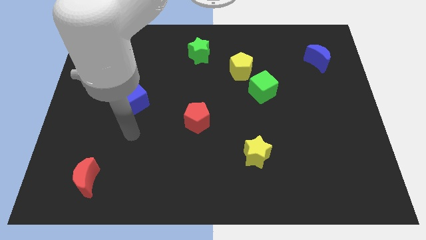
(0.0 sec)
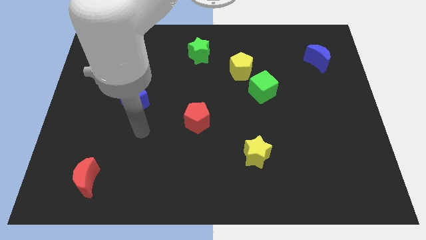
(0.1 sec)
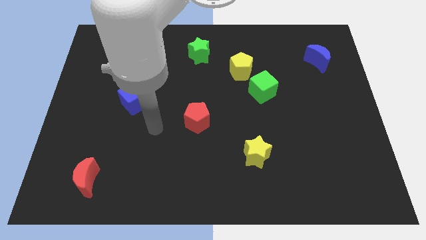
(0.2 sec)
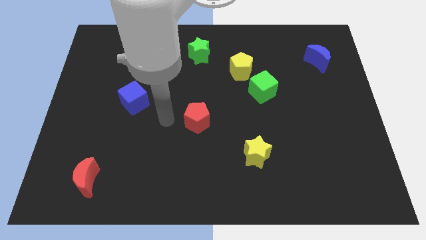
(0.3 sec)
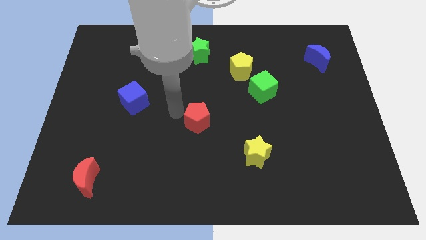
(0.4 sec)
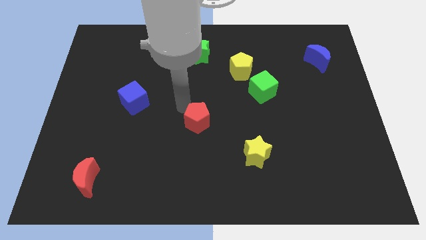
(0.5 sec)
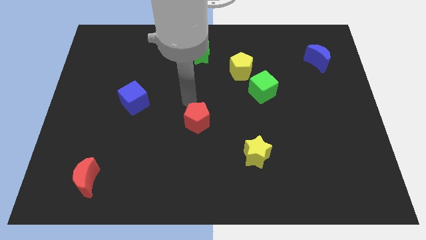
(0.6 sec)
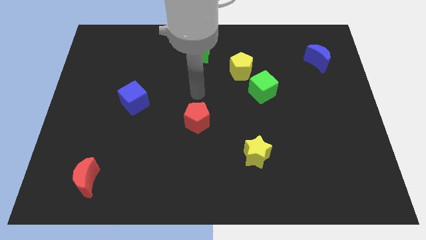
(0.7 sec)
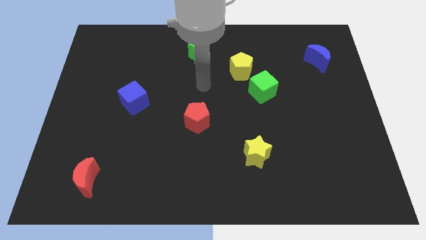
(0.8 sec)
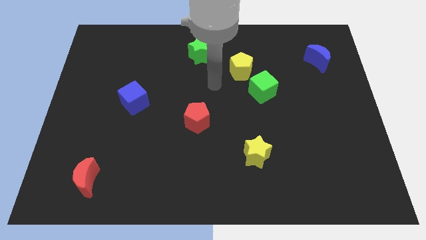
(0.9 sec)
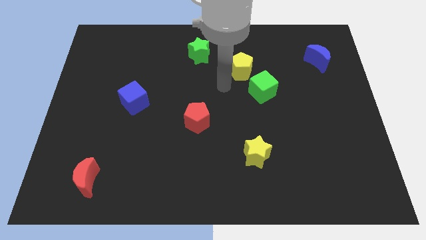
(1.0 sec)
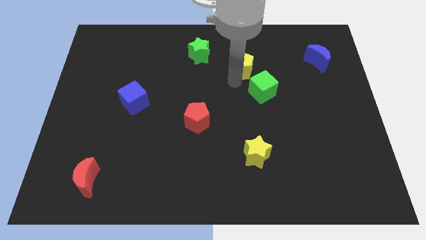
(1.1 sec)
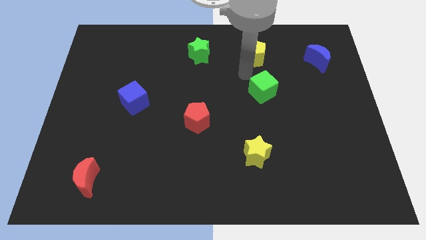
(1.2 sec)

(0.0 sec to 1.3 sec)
move the green cube away from the yellow pentagon

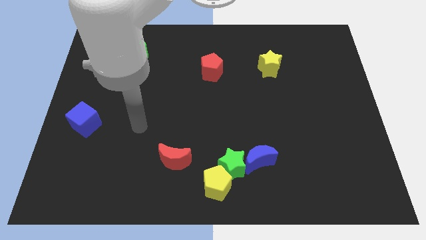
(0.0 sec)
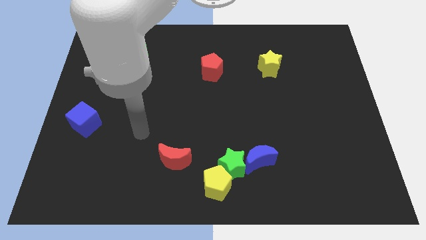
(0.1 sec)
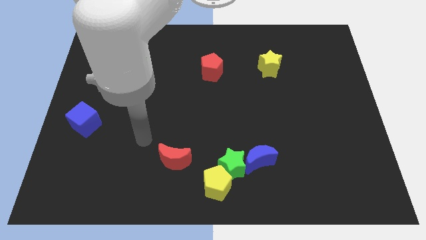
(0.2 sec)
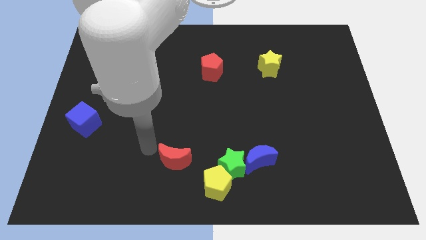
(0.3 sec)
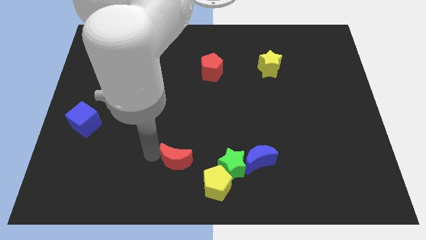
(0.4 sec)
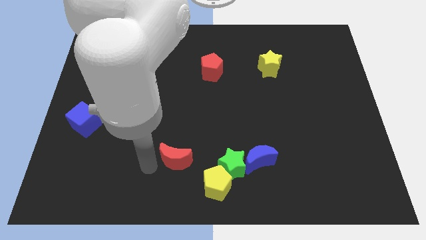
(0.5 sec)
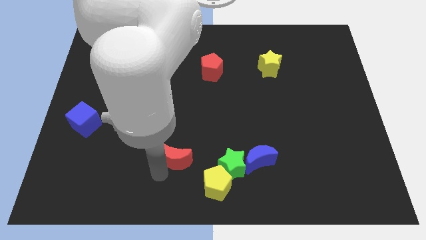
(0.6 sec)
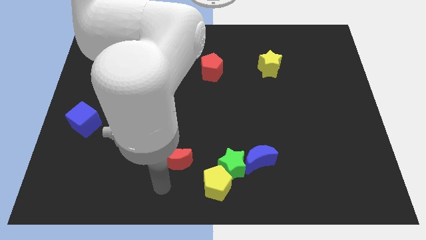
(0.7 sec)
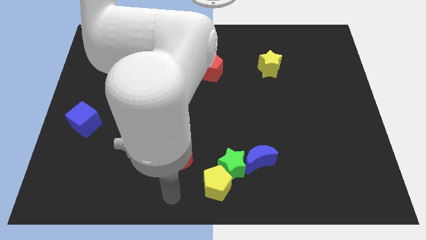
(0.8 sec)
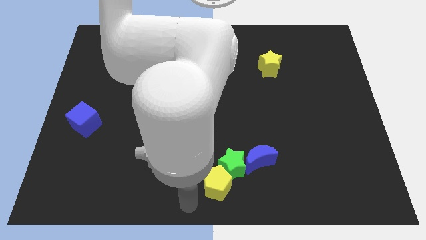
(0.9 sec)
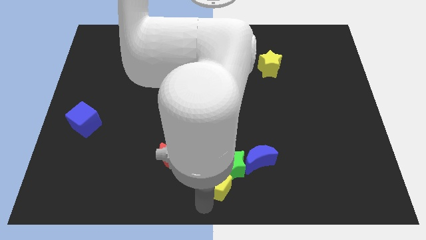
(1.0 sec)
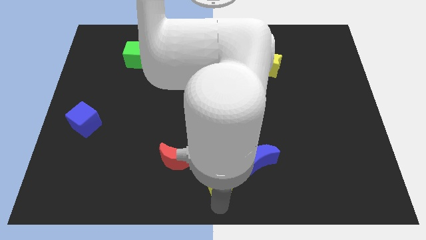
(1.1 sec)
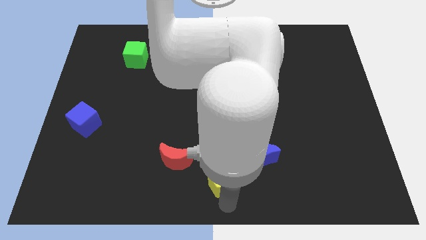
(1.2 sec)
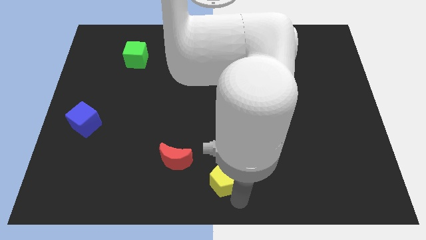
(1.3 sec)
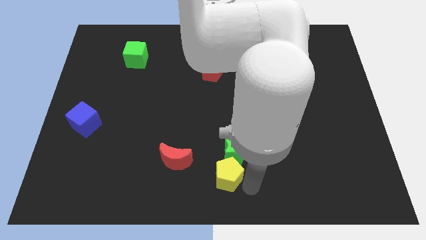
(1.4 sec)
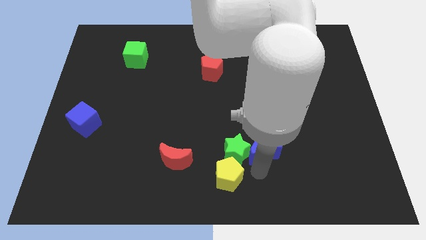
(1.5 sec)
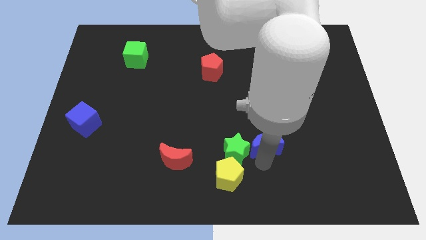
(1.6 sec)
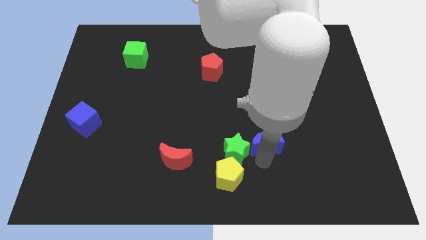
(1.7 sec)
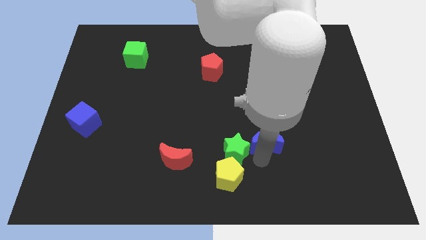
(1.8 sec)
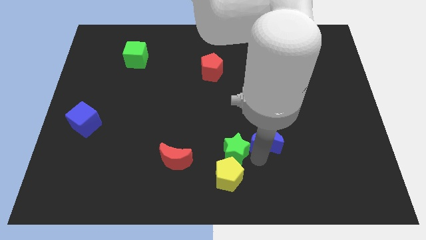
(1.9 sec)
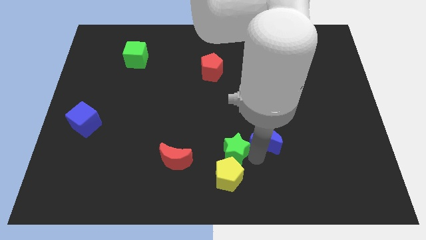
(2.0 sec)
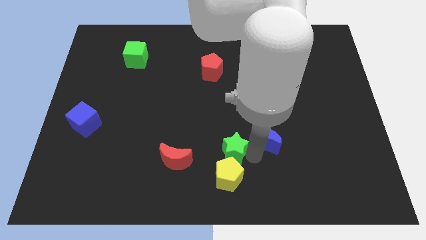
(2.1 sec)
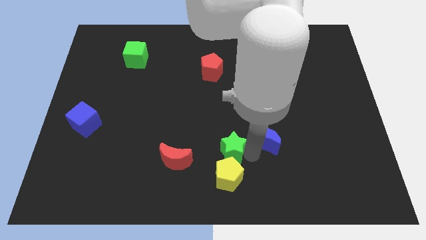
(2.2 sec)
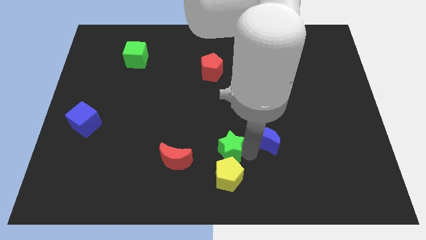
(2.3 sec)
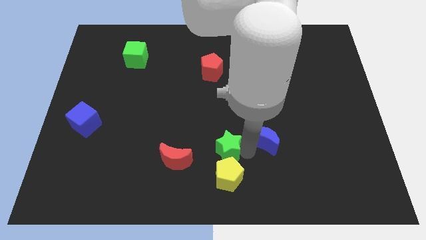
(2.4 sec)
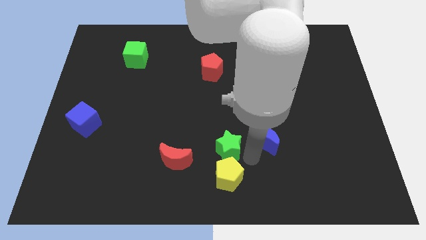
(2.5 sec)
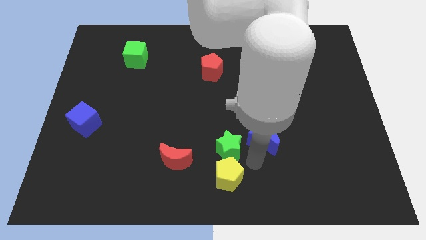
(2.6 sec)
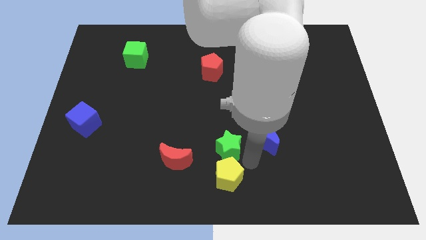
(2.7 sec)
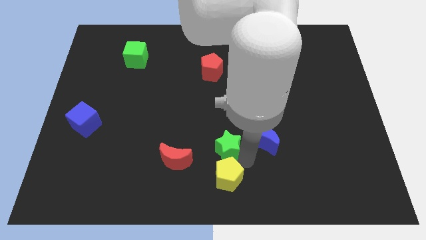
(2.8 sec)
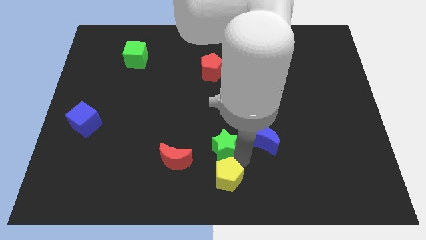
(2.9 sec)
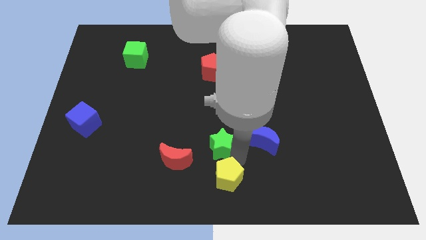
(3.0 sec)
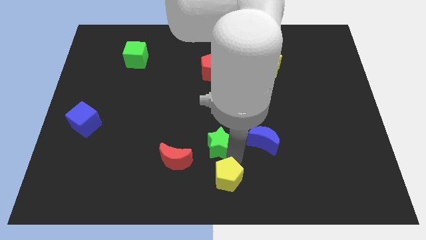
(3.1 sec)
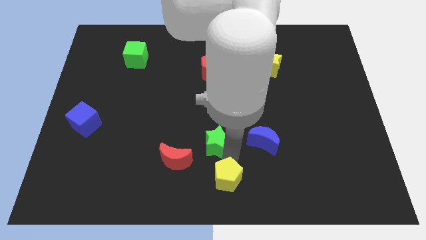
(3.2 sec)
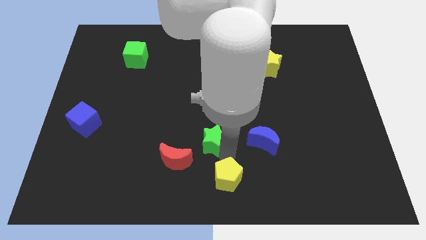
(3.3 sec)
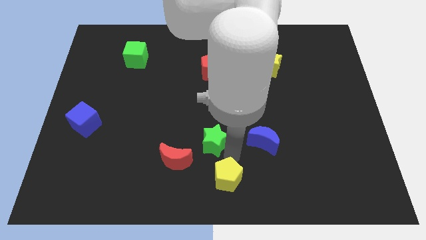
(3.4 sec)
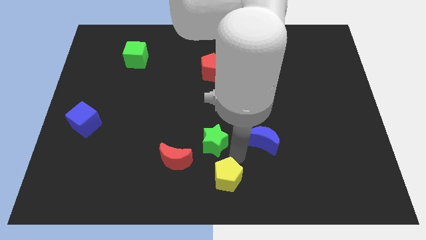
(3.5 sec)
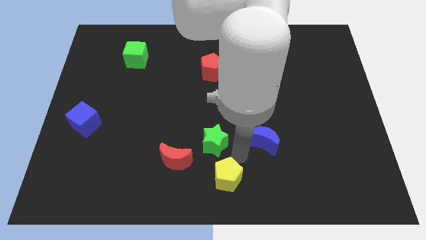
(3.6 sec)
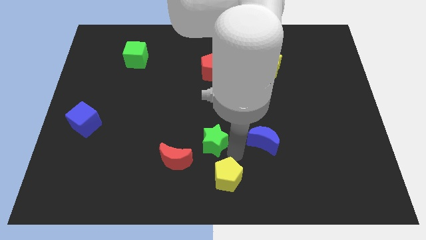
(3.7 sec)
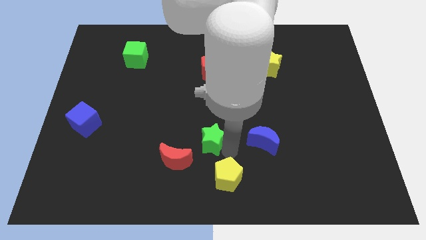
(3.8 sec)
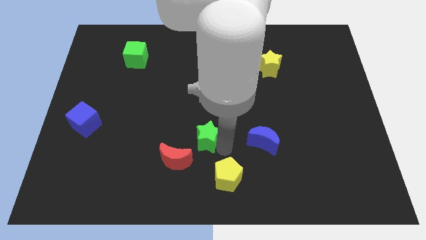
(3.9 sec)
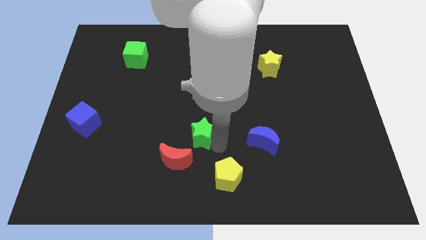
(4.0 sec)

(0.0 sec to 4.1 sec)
pull the green star apart from the yellow pentagon and blue moon

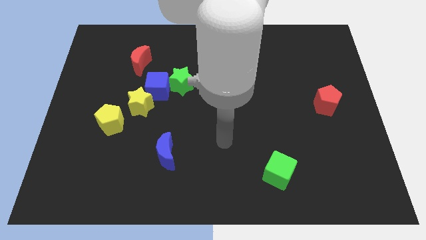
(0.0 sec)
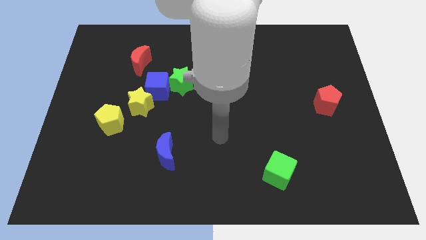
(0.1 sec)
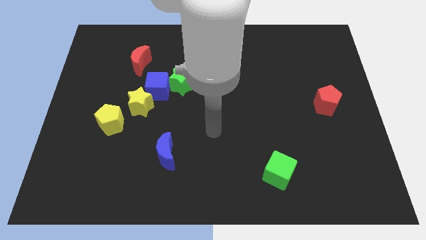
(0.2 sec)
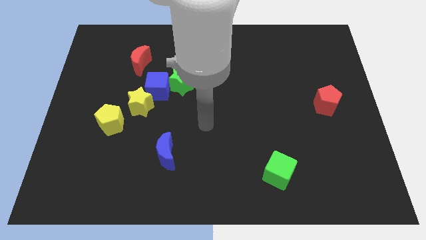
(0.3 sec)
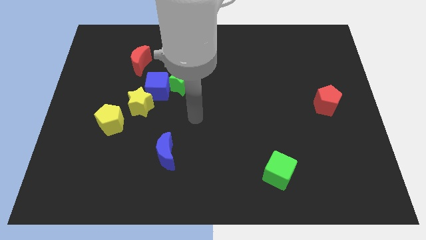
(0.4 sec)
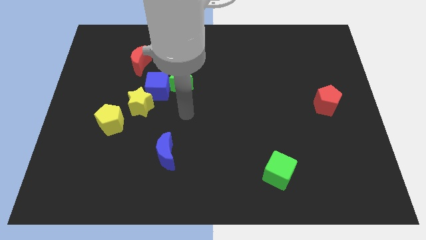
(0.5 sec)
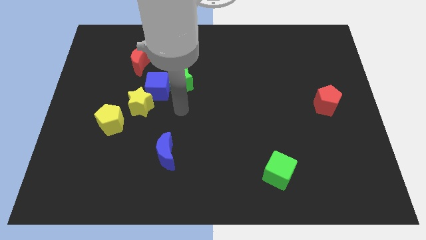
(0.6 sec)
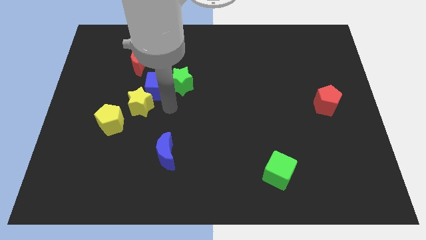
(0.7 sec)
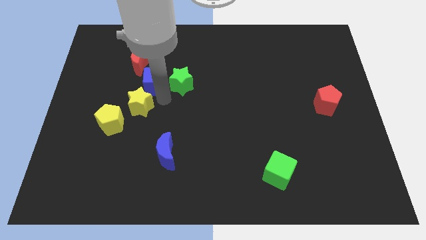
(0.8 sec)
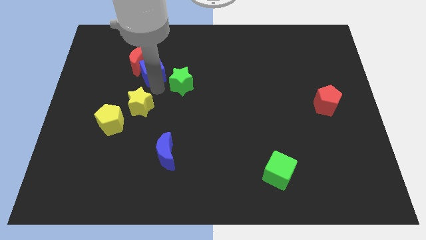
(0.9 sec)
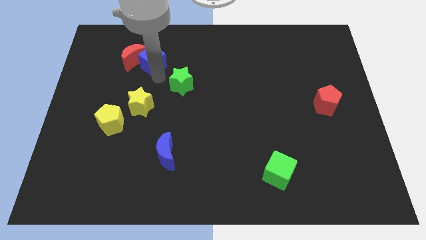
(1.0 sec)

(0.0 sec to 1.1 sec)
move the green star away from the blue cube

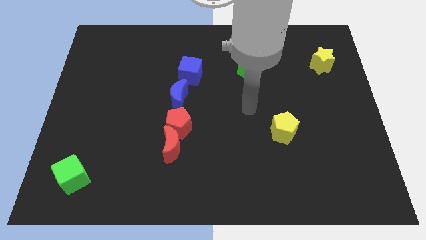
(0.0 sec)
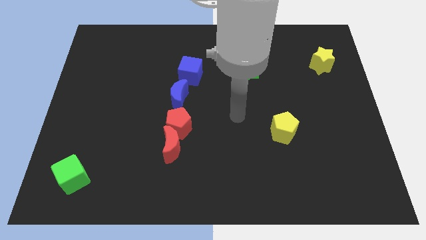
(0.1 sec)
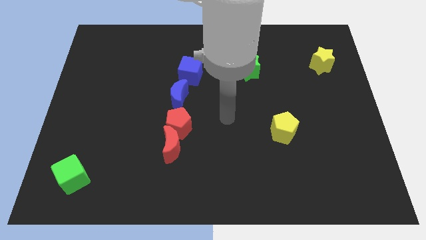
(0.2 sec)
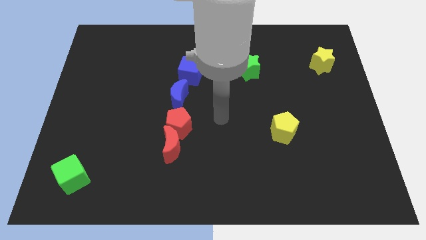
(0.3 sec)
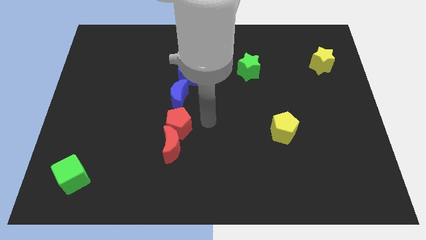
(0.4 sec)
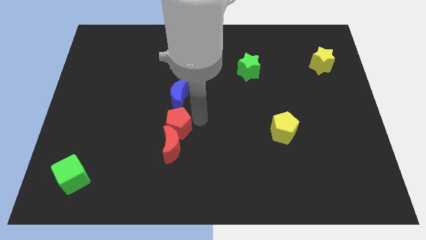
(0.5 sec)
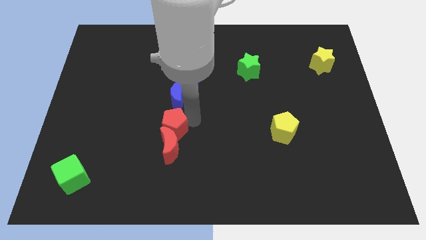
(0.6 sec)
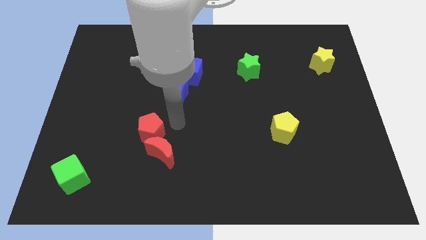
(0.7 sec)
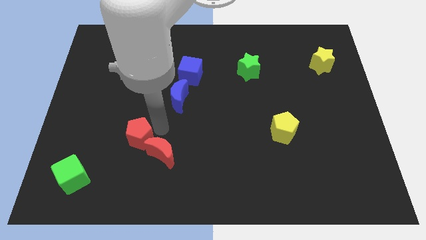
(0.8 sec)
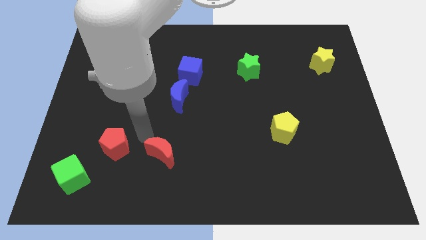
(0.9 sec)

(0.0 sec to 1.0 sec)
separate the red moon from the red pentagon

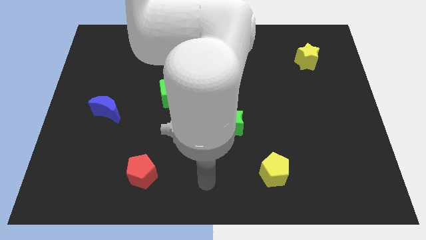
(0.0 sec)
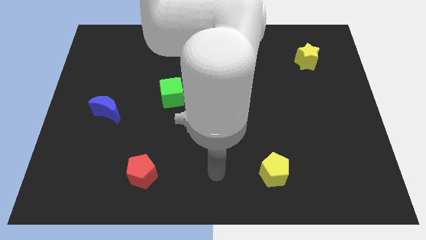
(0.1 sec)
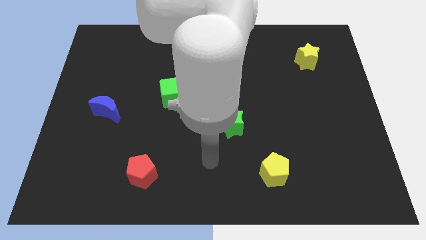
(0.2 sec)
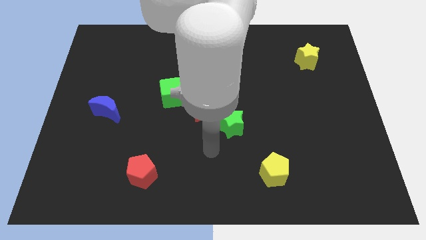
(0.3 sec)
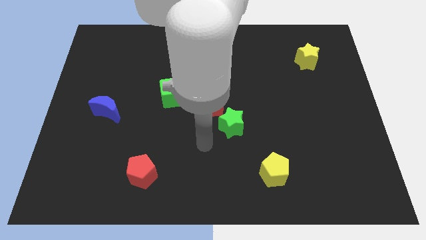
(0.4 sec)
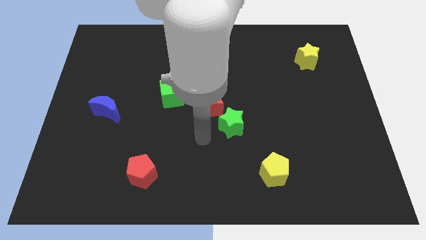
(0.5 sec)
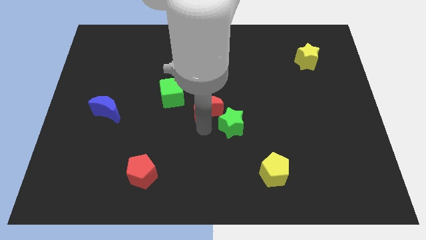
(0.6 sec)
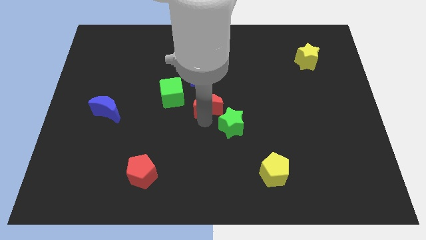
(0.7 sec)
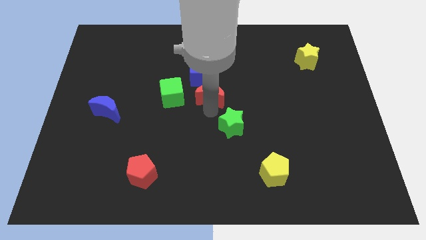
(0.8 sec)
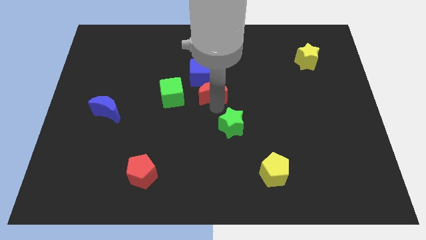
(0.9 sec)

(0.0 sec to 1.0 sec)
move the green star away from the red moon

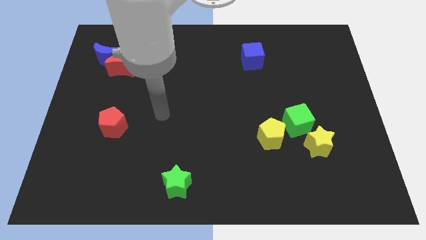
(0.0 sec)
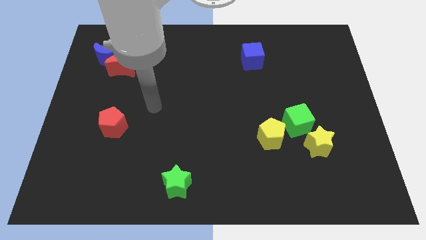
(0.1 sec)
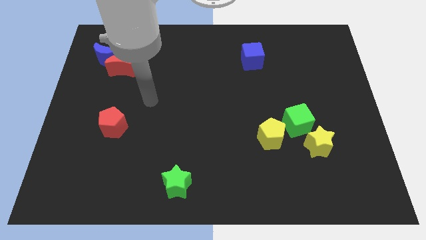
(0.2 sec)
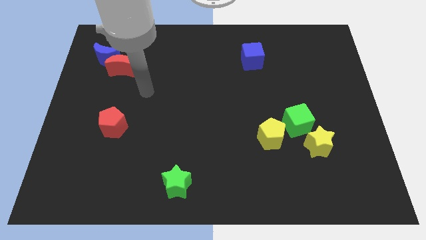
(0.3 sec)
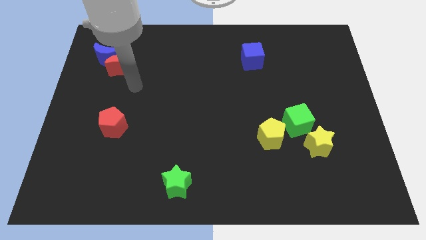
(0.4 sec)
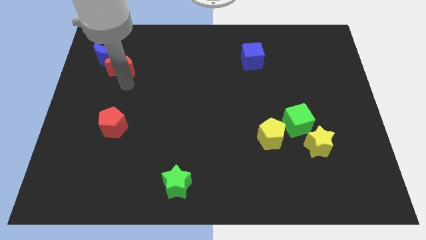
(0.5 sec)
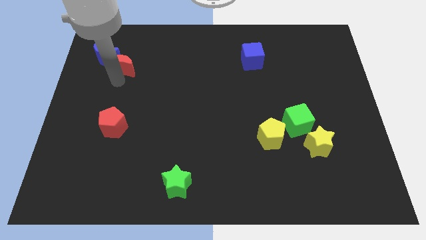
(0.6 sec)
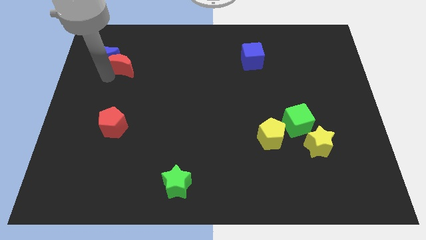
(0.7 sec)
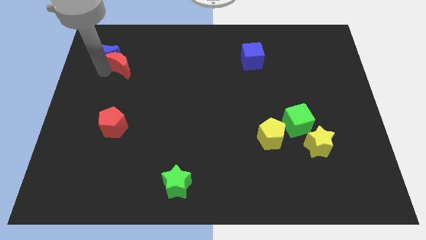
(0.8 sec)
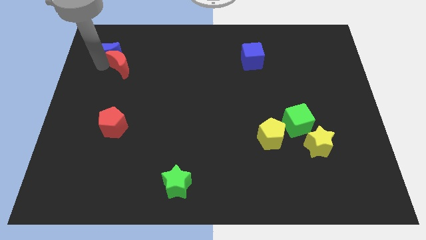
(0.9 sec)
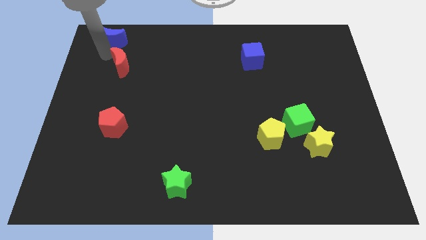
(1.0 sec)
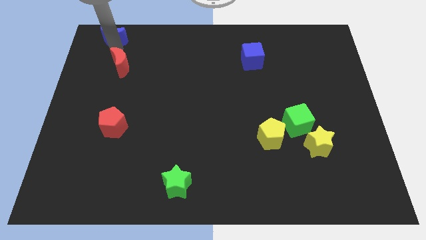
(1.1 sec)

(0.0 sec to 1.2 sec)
pull the red moon apart from the blue moon
